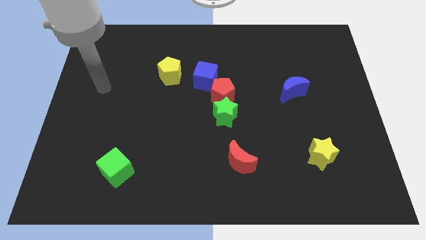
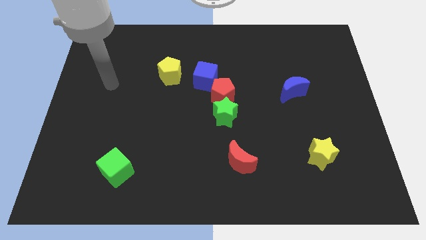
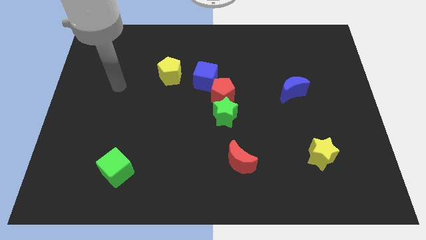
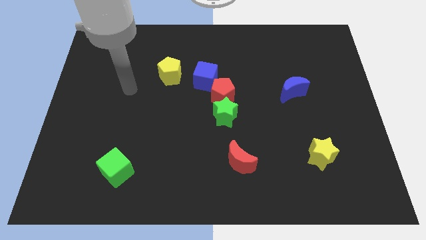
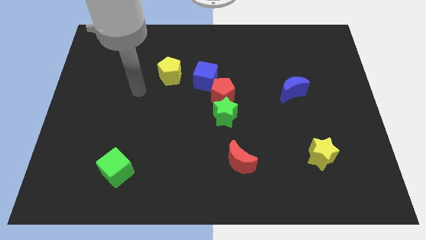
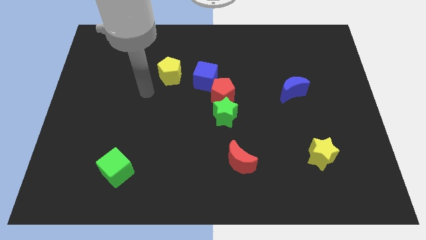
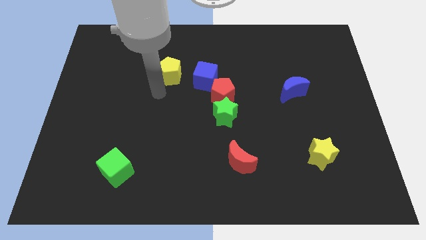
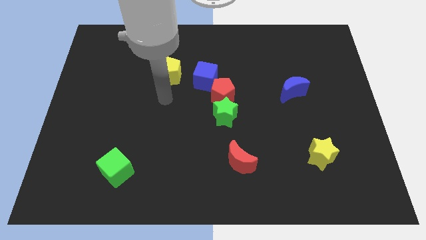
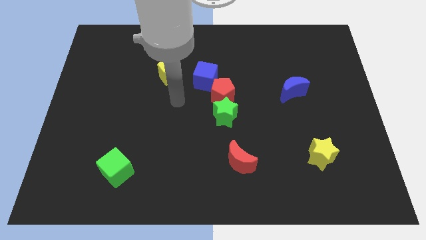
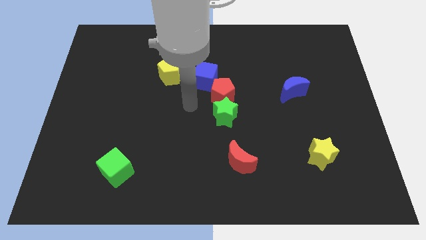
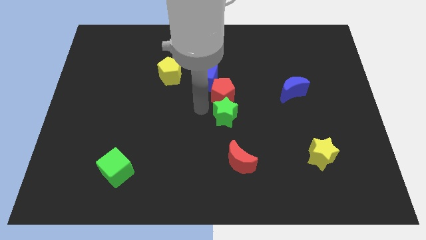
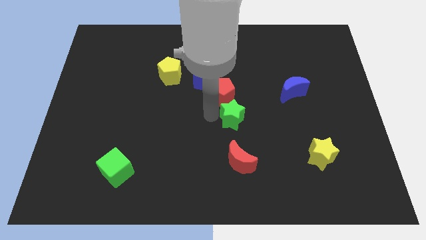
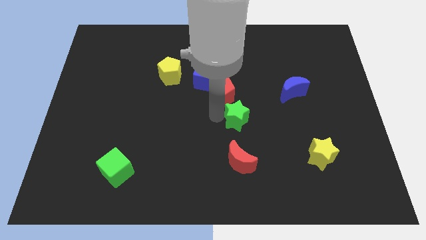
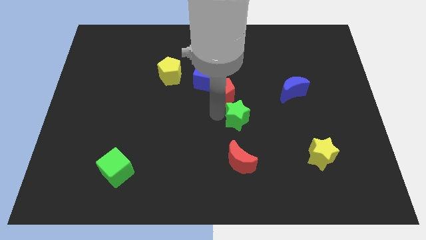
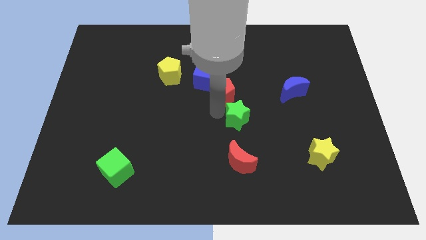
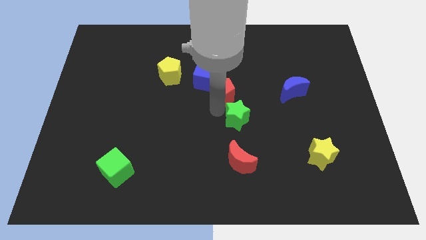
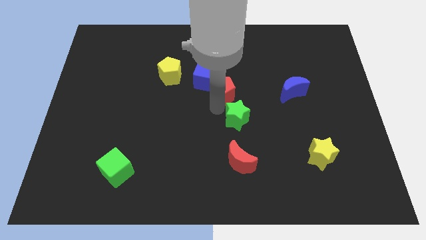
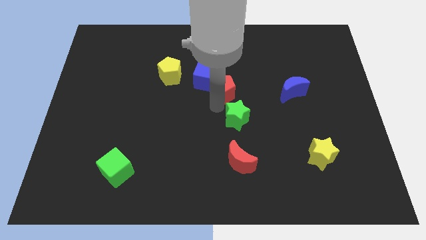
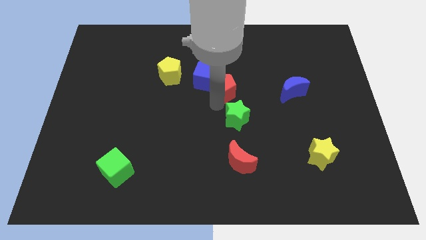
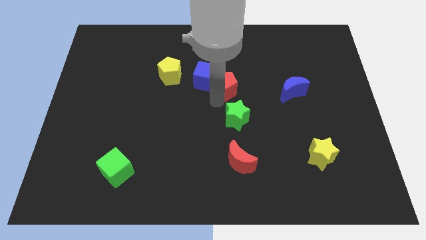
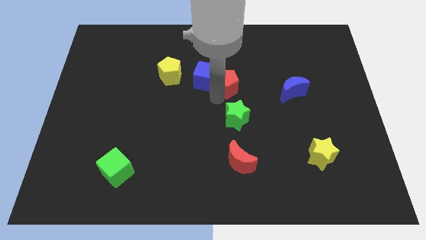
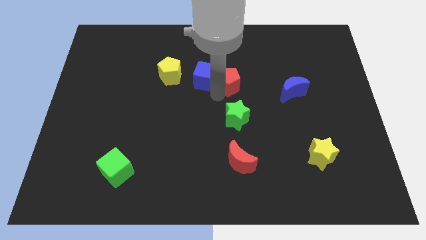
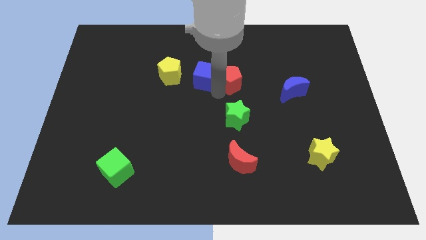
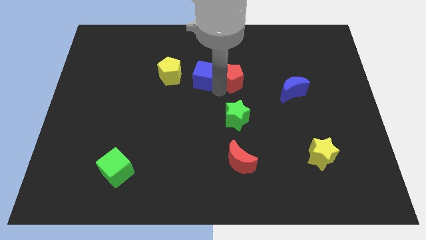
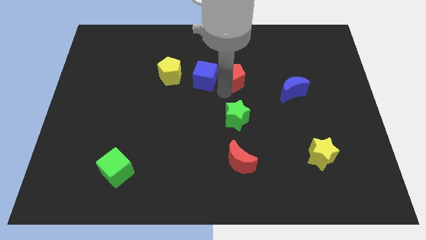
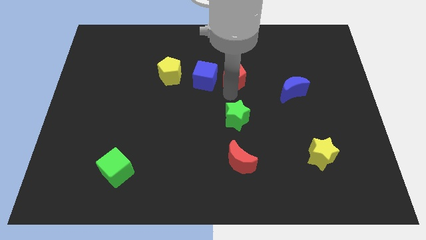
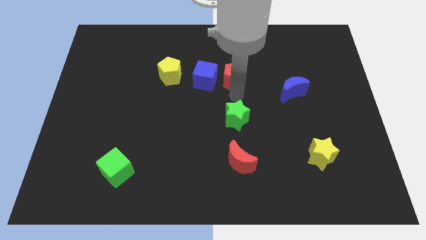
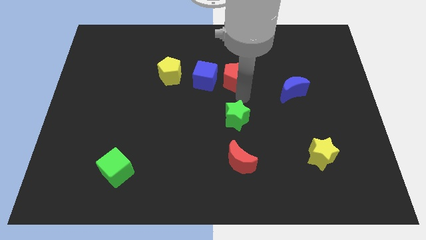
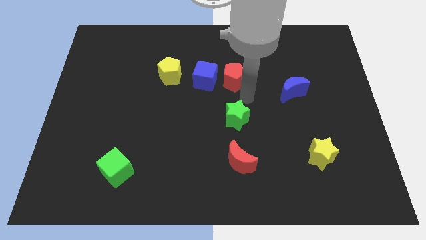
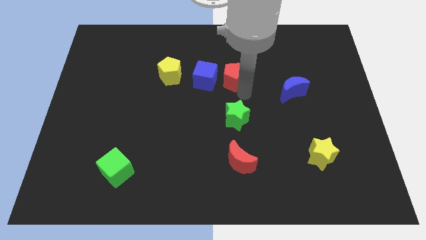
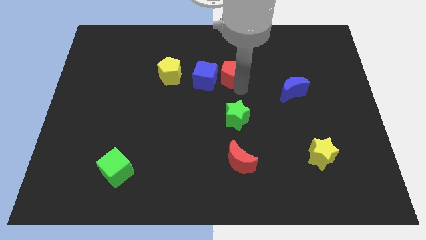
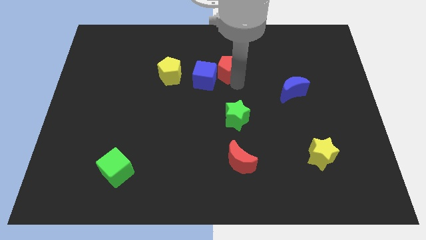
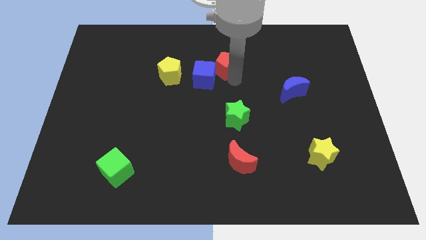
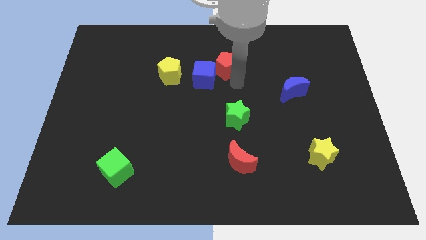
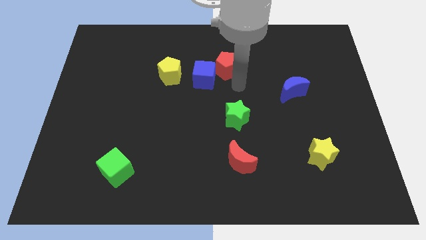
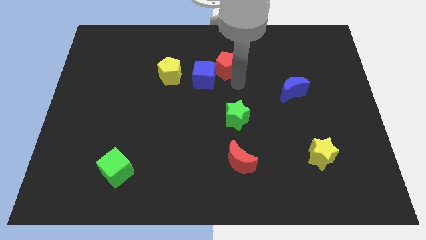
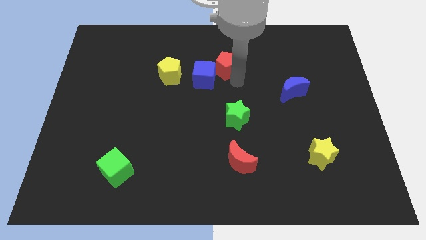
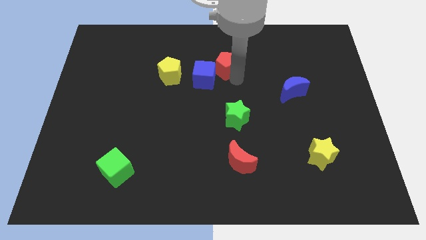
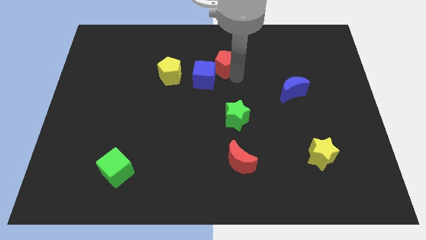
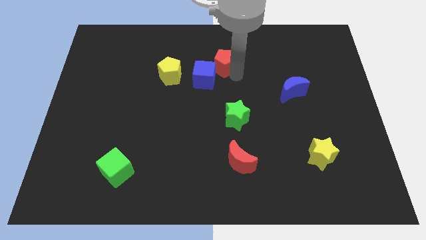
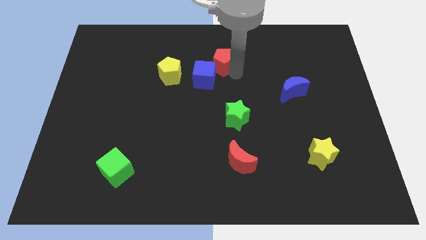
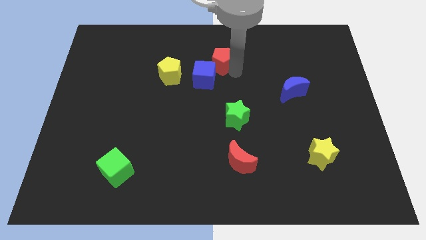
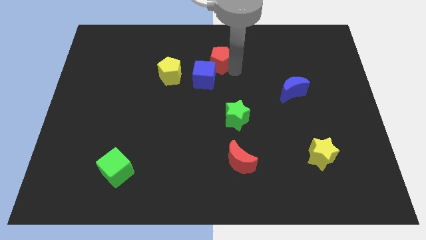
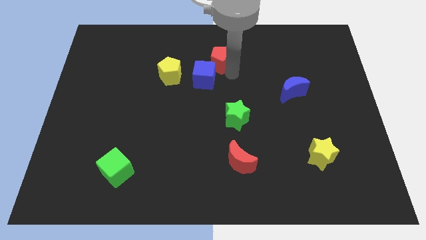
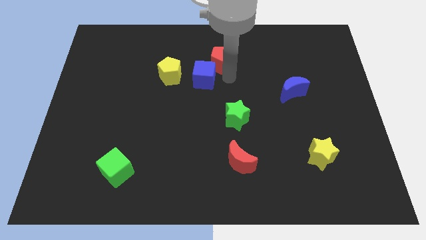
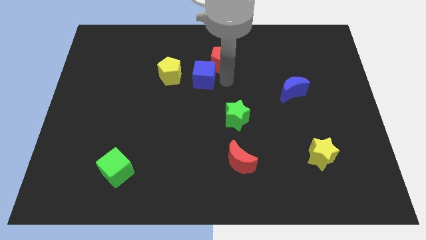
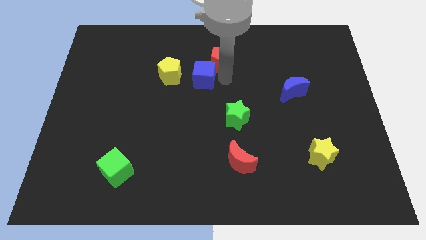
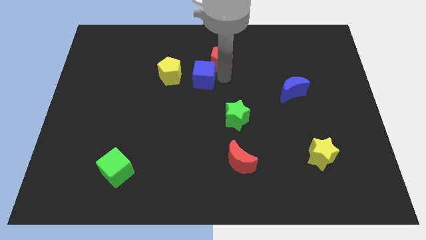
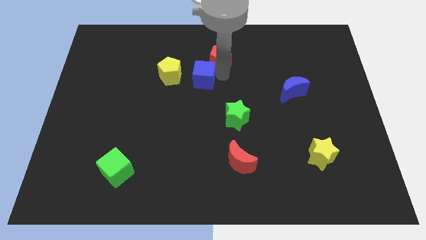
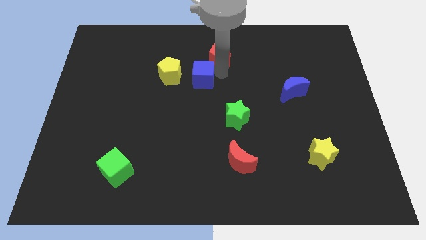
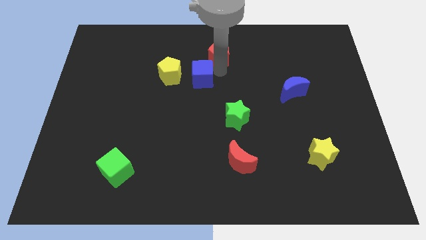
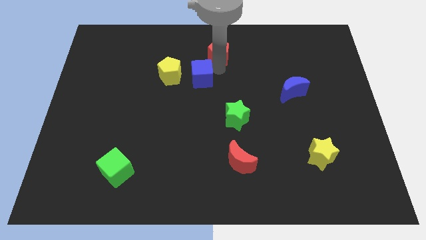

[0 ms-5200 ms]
put the red pentagon to the top

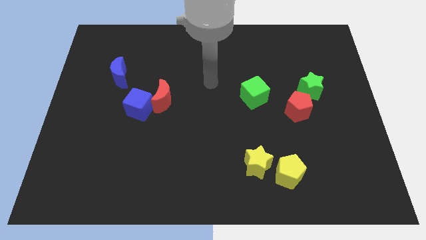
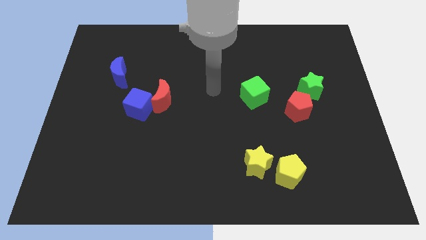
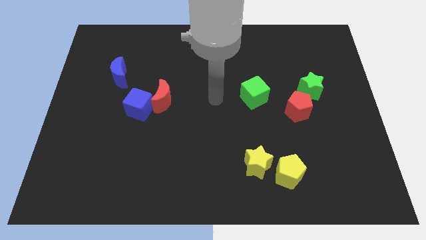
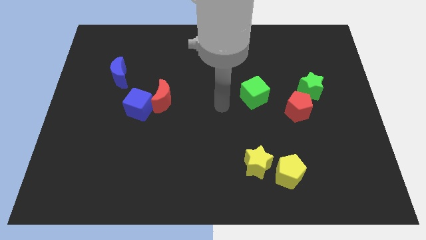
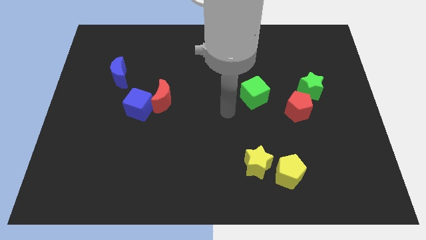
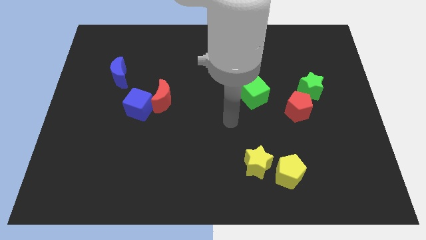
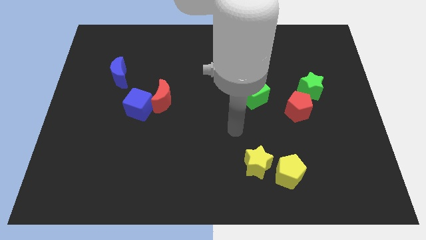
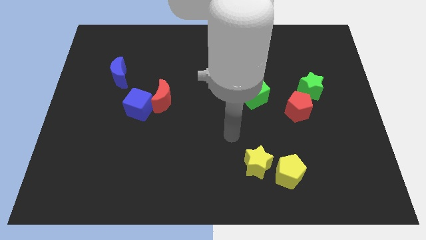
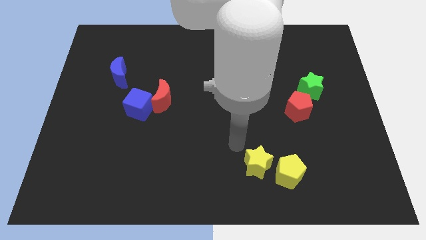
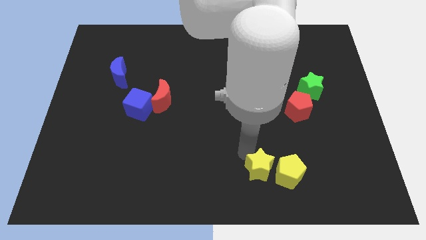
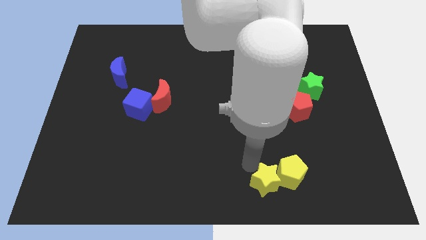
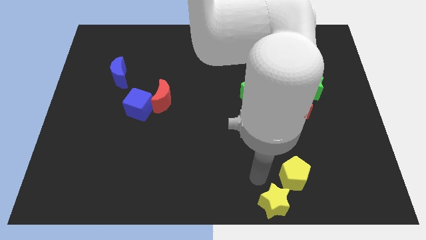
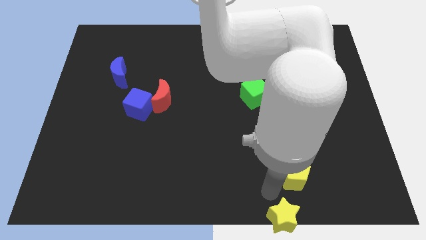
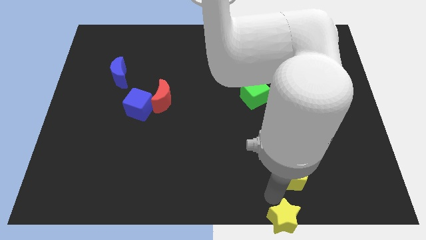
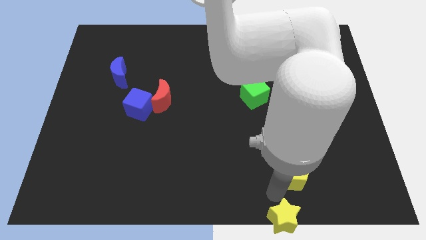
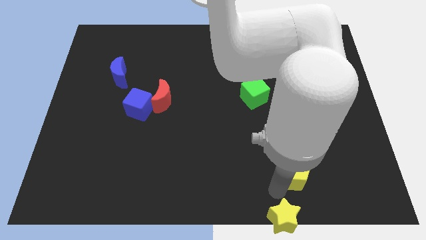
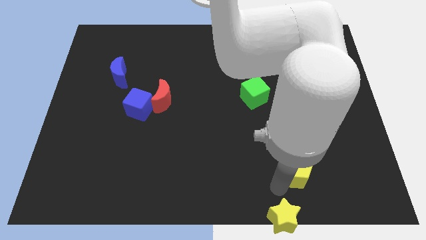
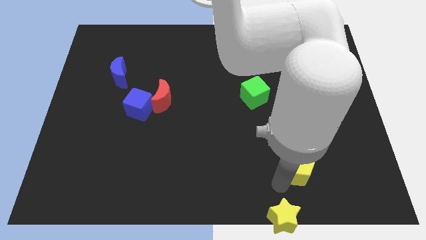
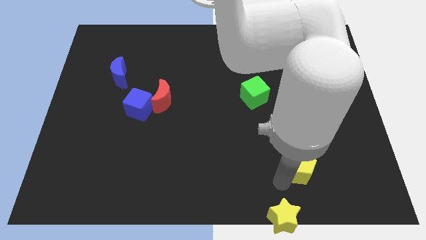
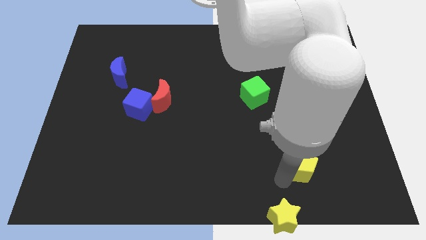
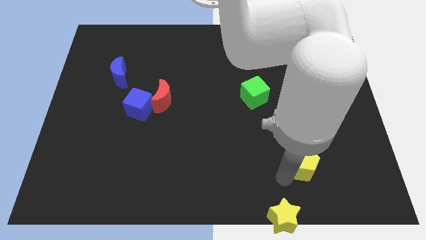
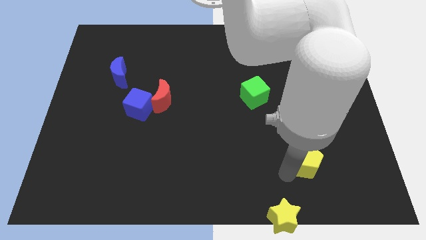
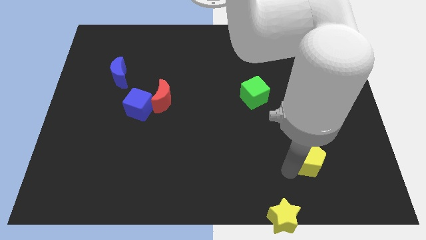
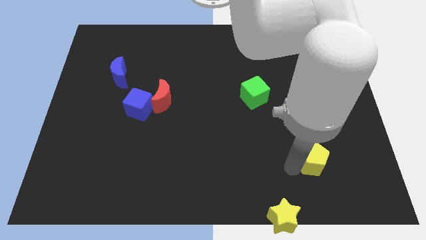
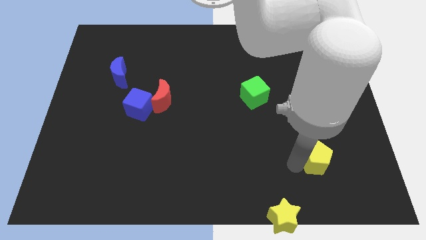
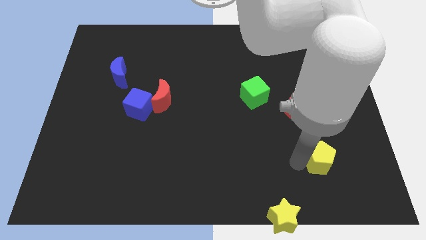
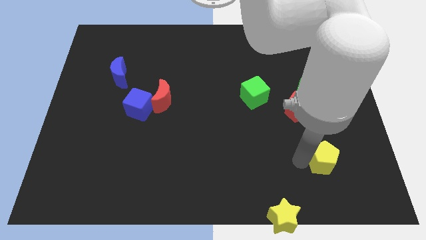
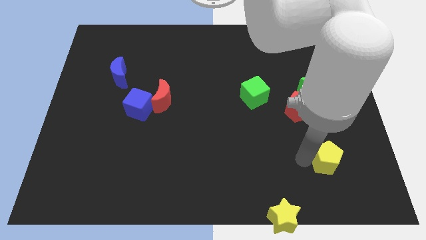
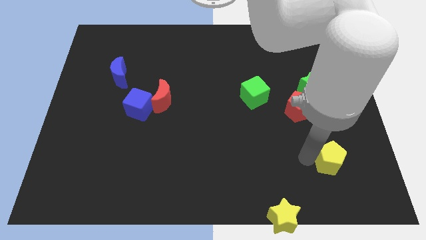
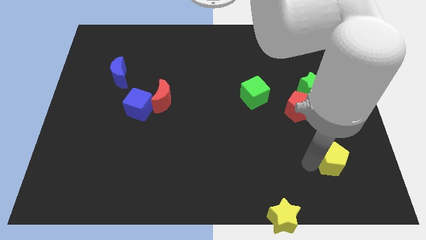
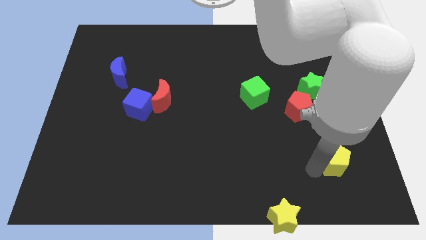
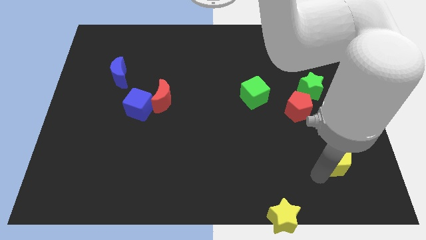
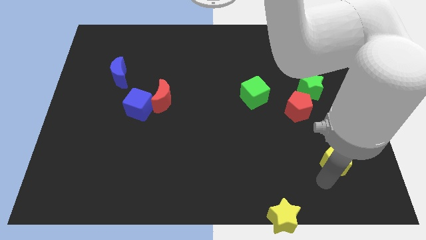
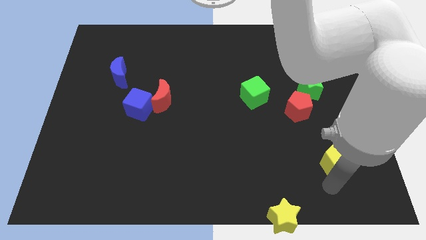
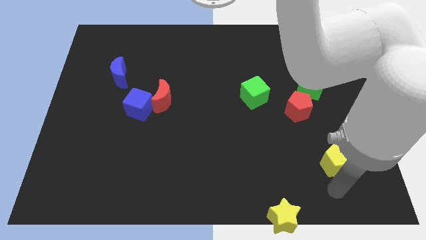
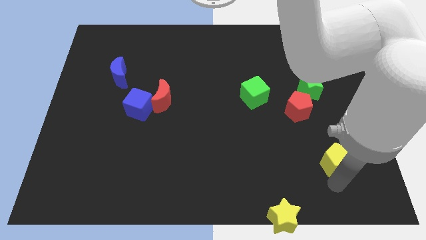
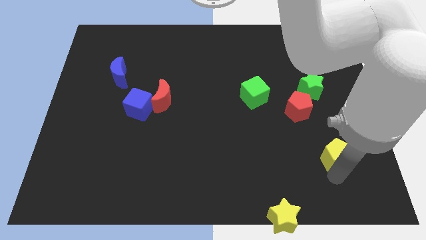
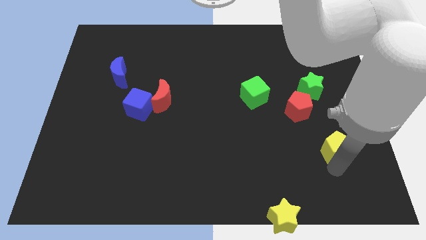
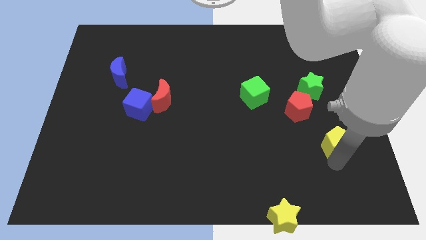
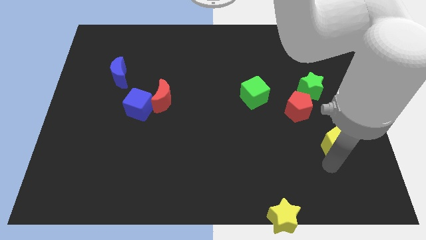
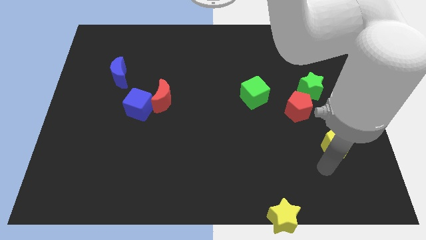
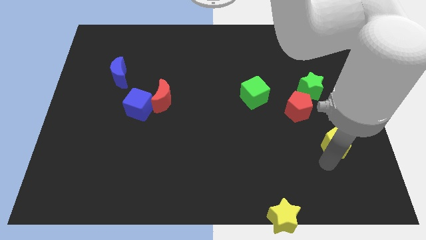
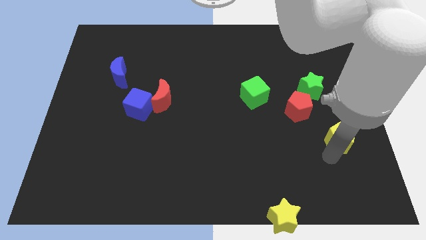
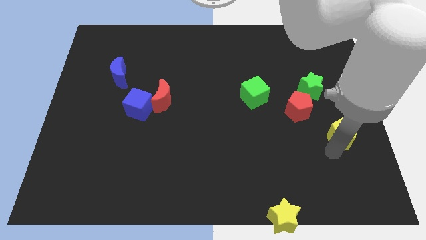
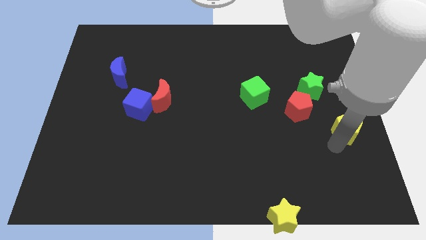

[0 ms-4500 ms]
push the yellow pentagon to the right side
